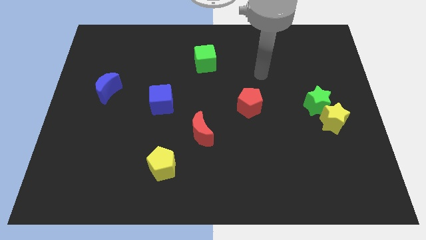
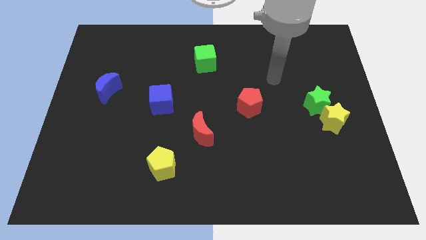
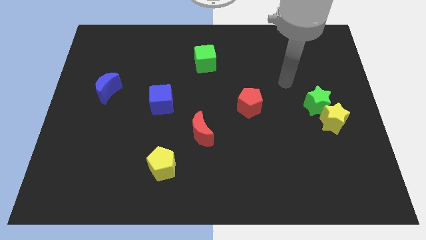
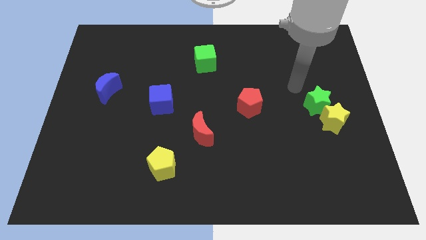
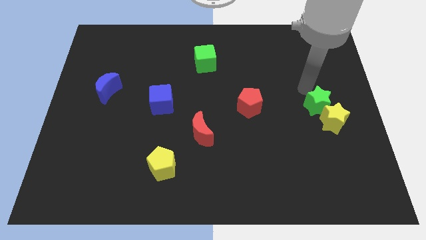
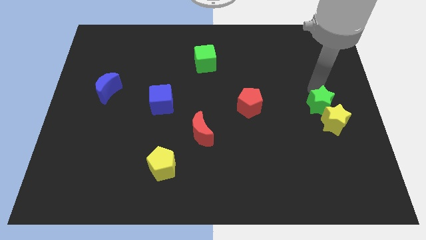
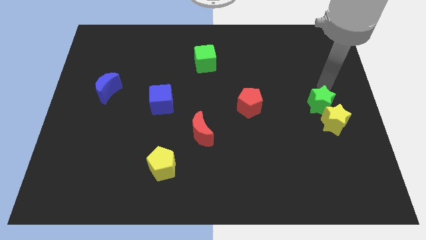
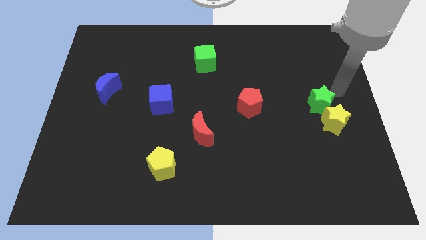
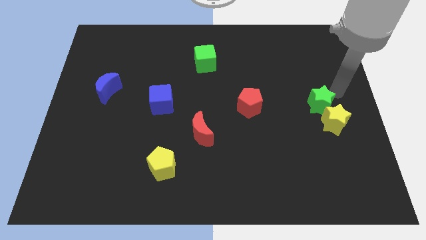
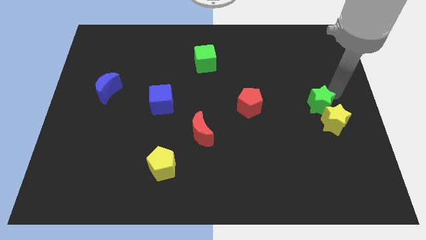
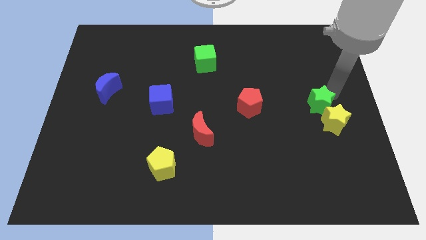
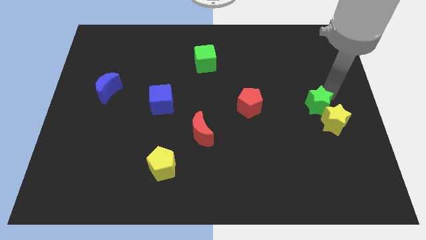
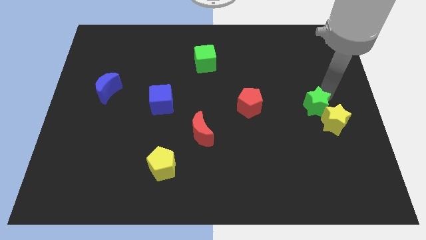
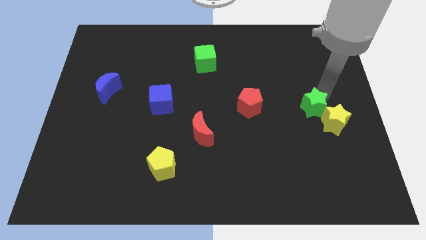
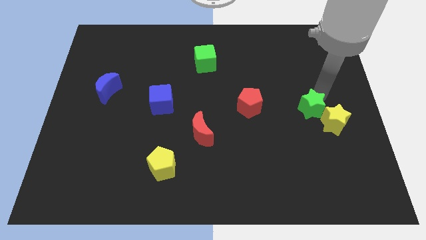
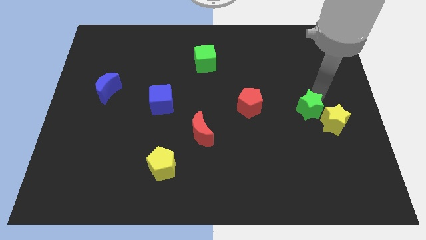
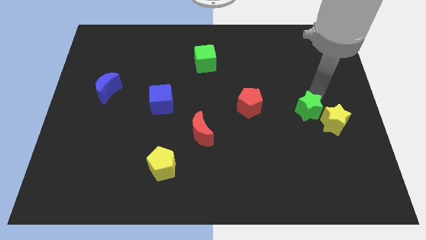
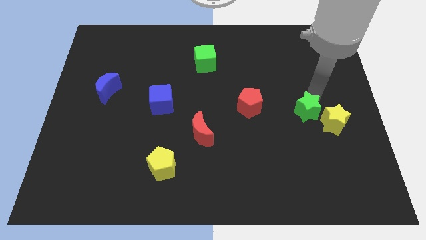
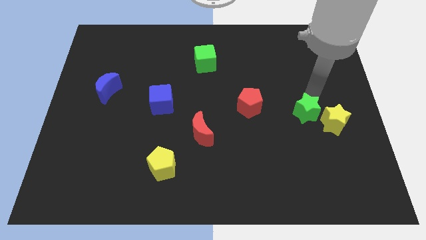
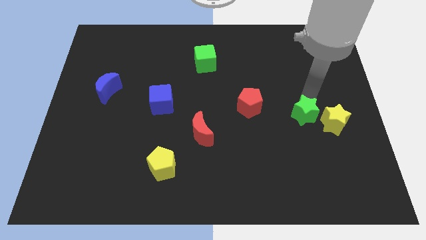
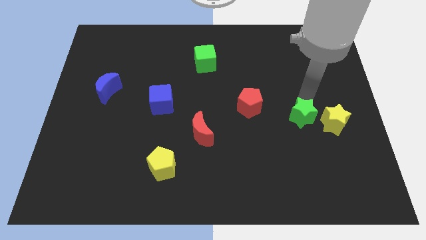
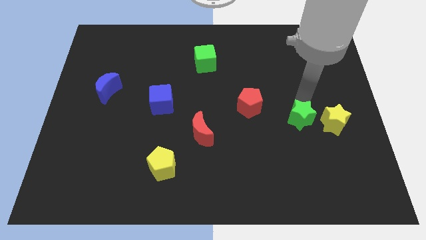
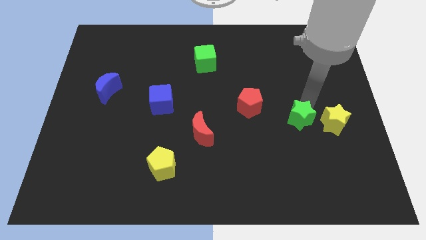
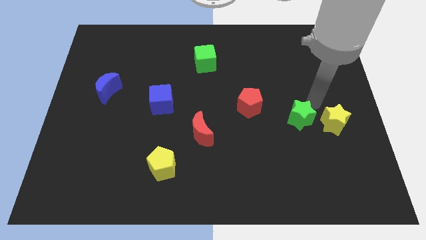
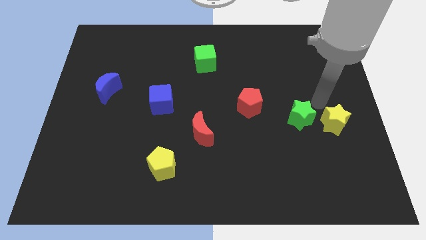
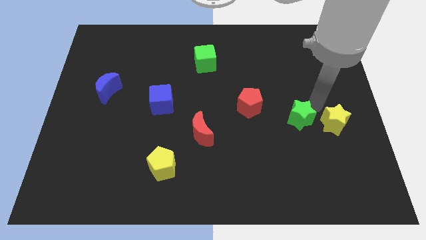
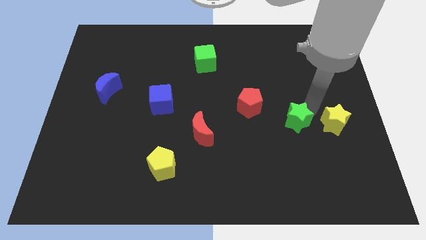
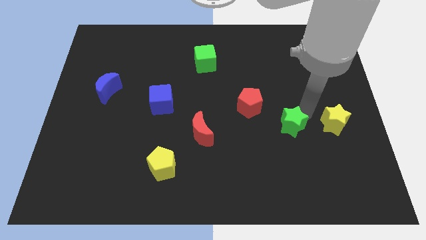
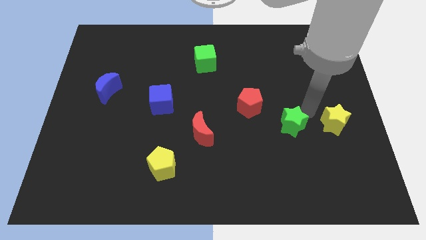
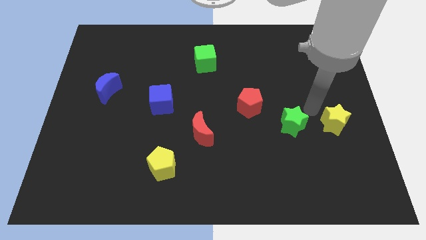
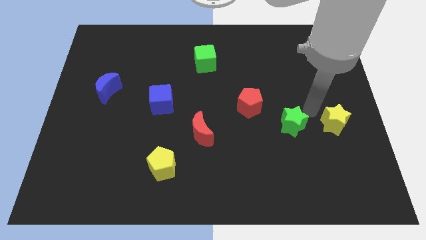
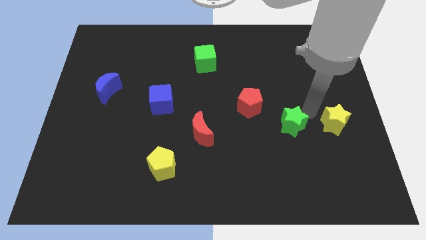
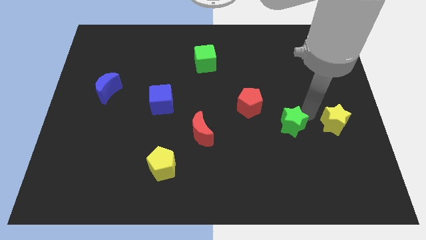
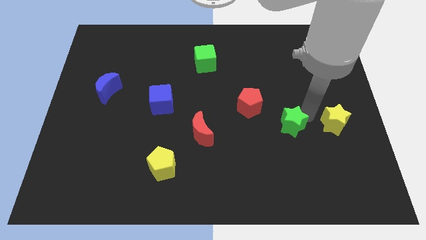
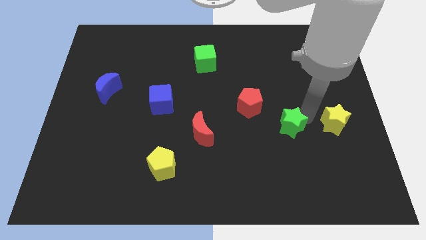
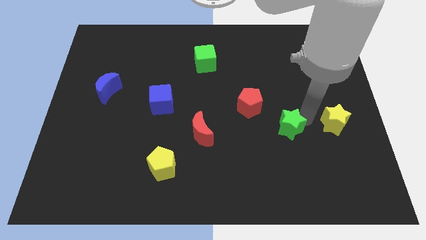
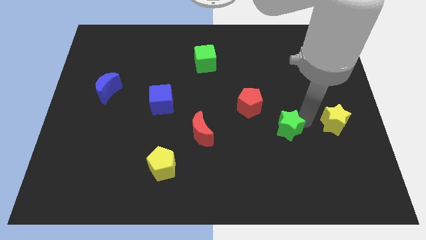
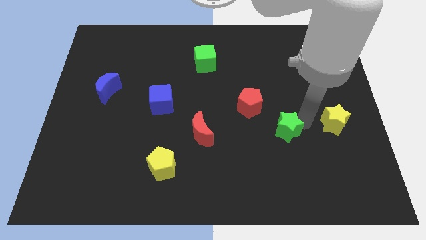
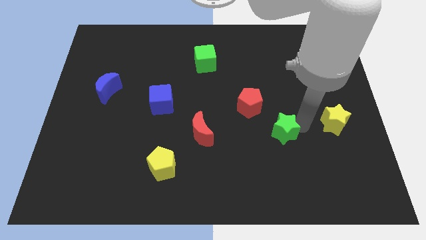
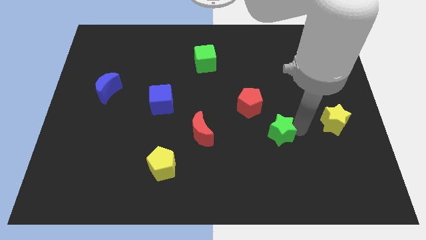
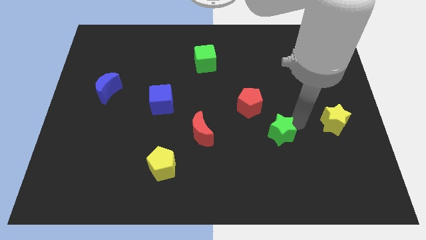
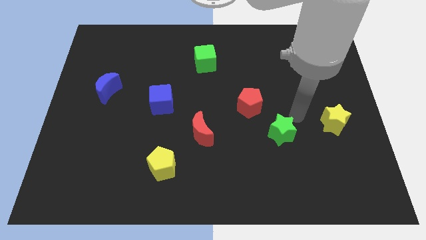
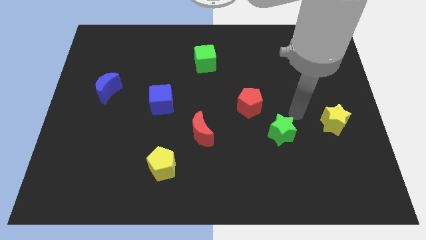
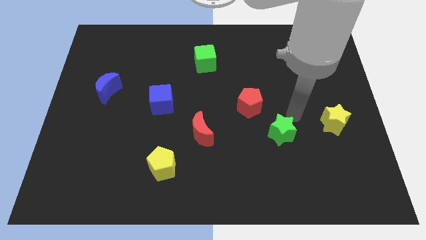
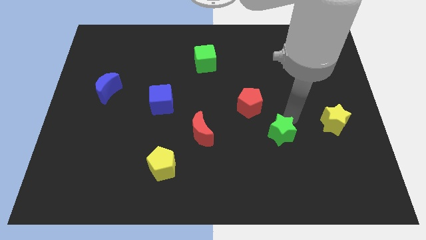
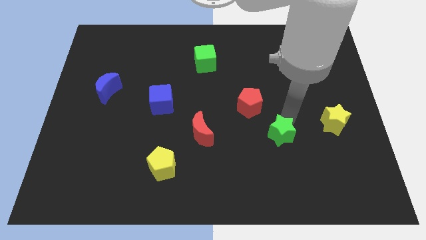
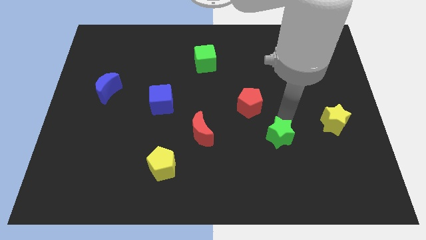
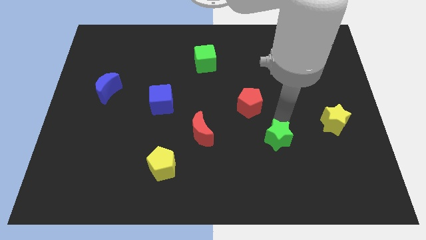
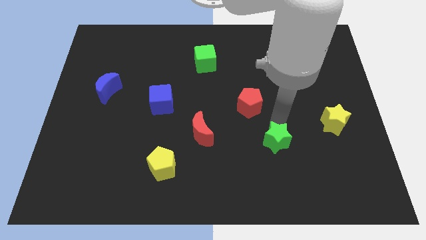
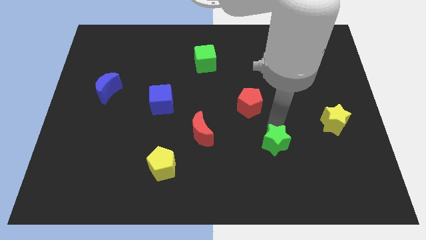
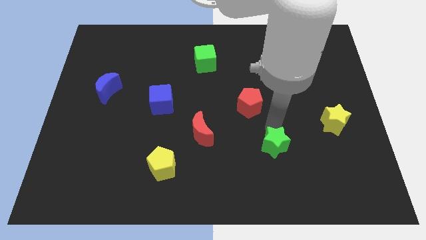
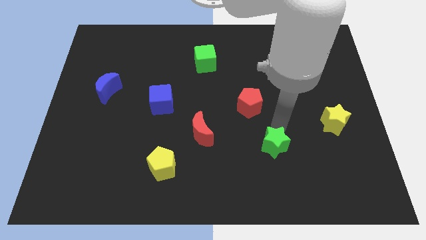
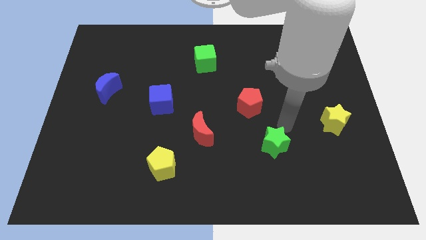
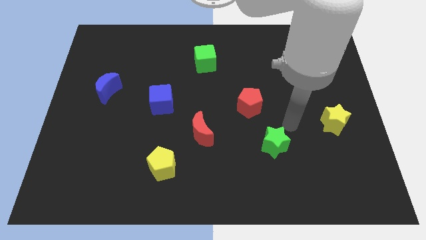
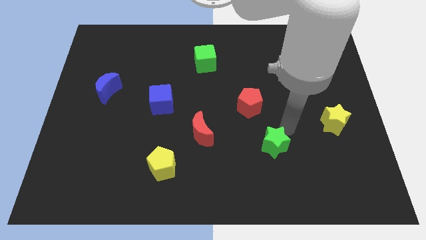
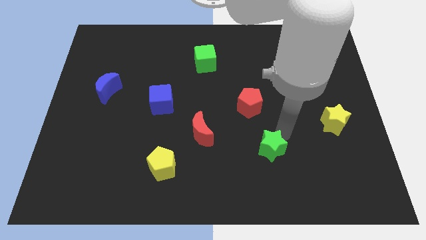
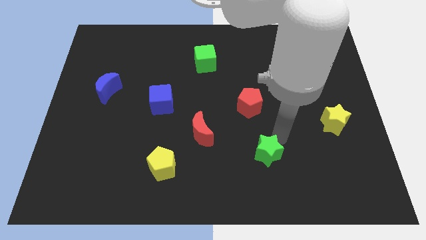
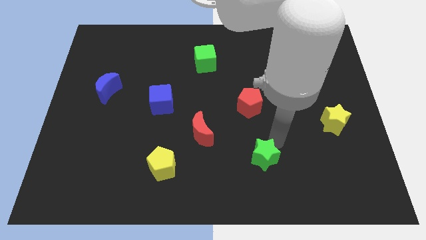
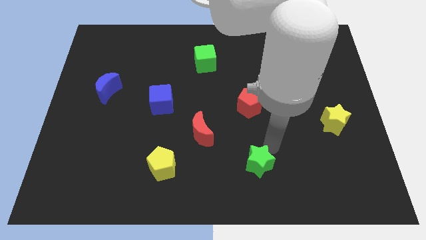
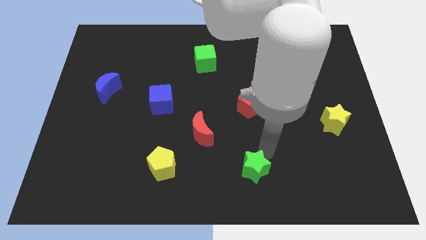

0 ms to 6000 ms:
move the green star to the bottom

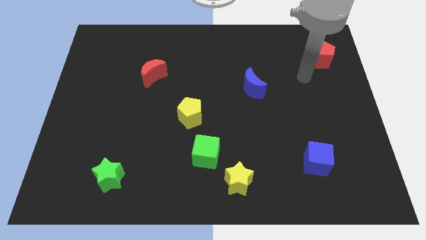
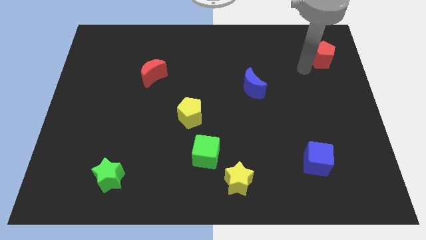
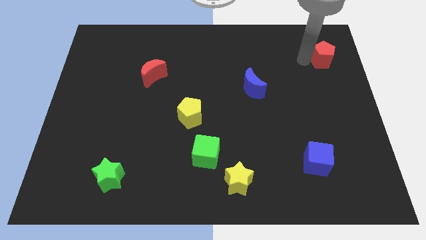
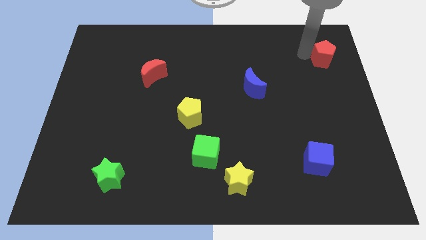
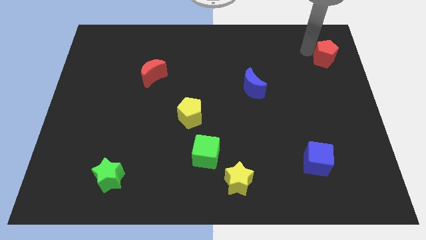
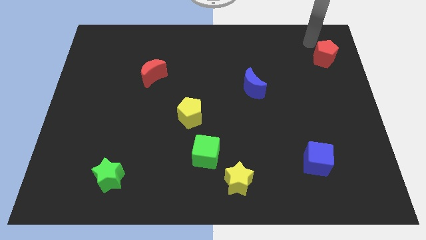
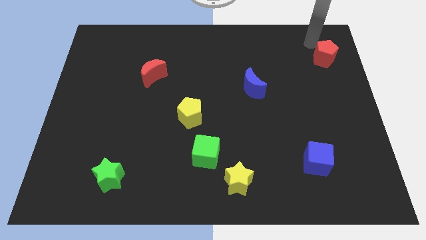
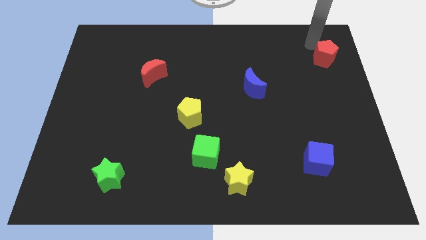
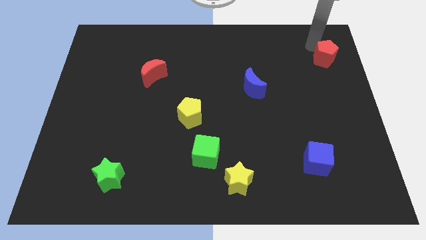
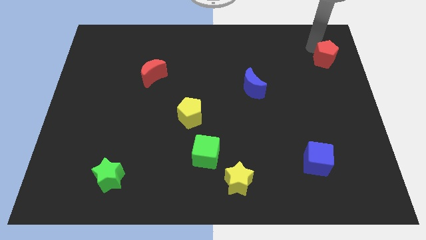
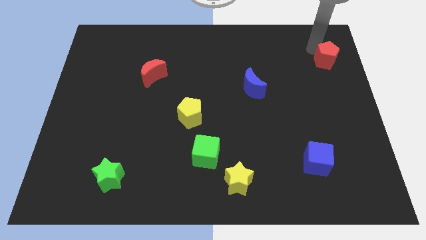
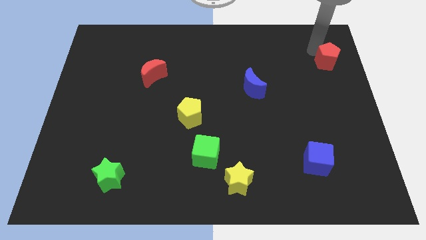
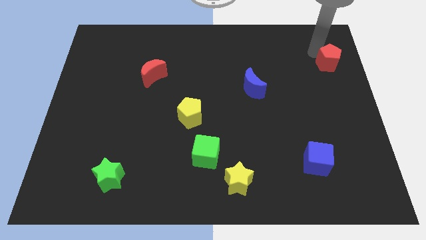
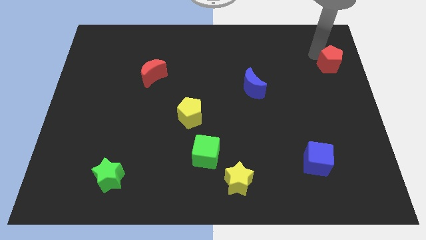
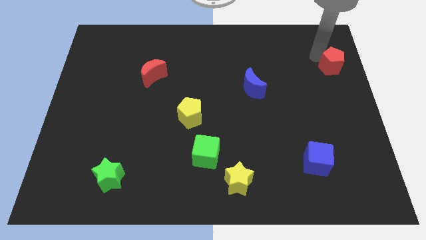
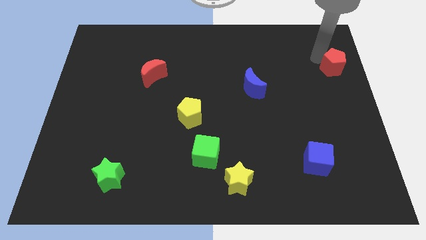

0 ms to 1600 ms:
put the red pentagon to the center right
